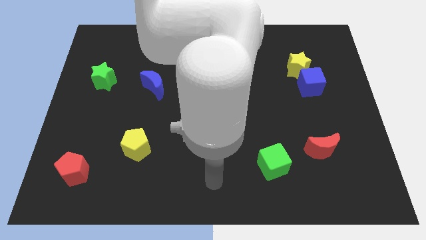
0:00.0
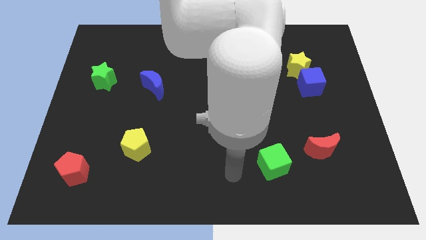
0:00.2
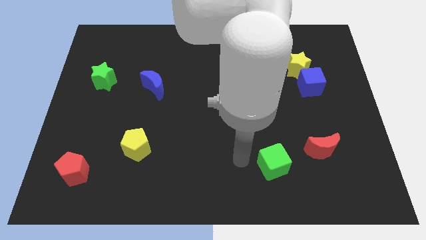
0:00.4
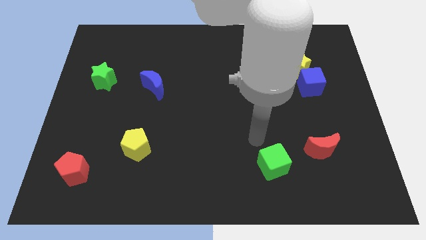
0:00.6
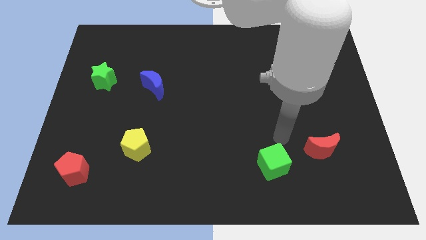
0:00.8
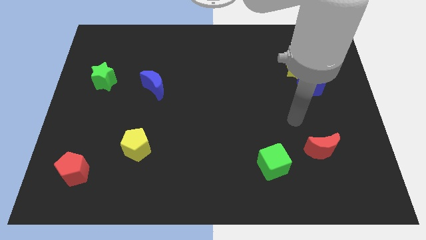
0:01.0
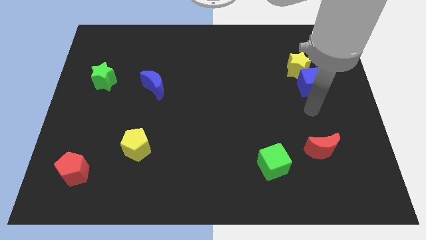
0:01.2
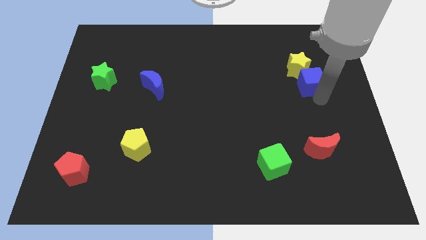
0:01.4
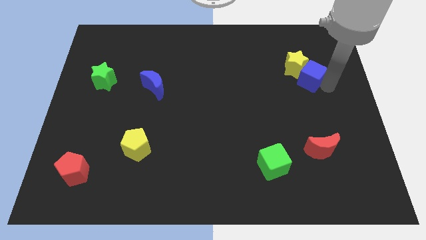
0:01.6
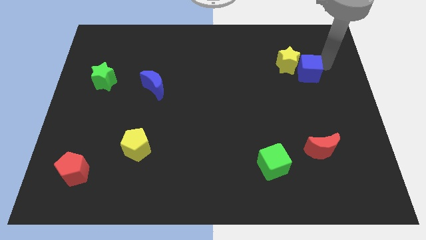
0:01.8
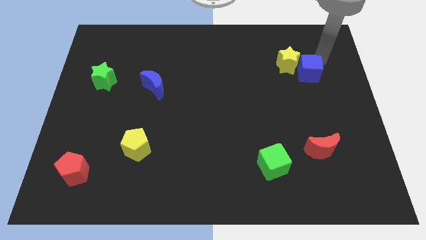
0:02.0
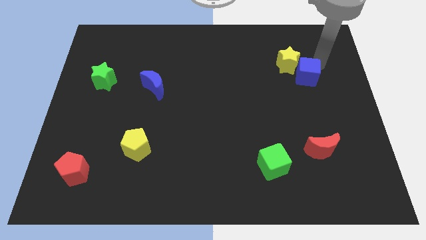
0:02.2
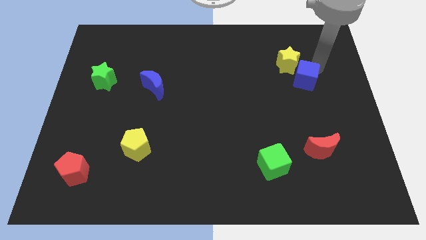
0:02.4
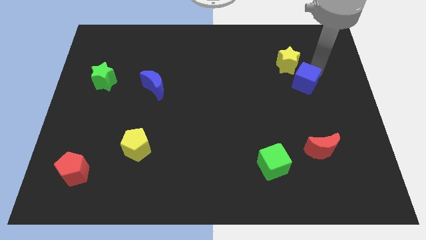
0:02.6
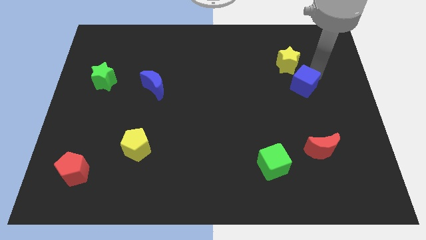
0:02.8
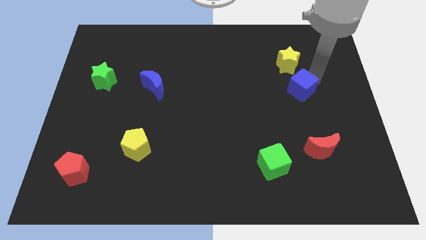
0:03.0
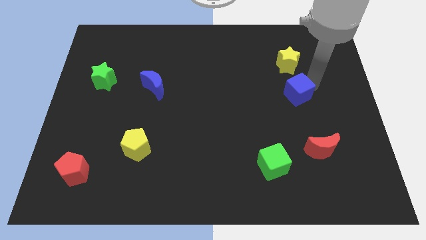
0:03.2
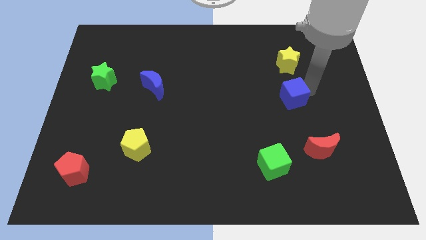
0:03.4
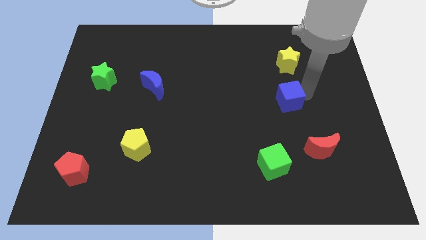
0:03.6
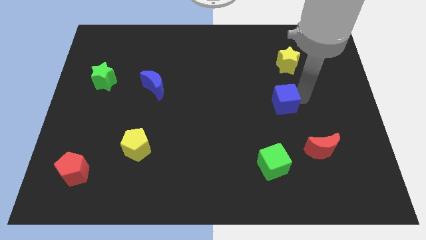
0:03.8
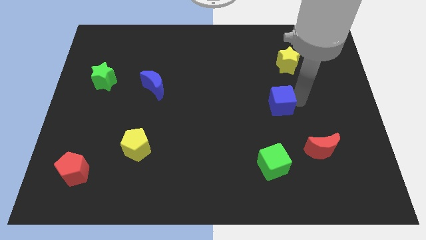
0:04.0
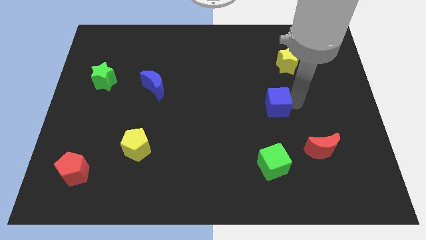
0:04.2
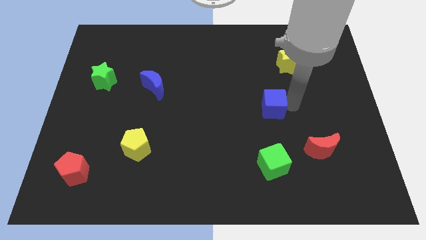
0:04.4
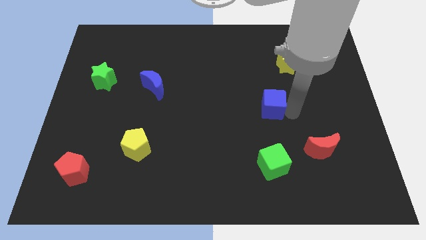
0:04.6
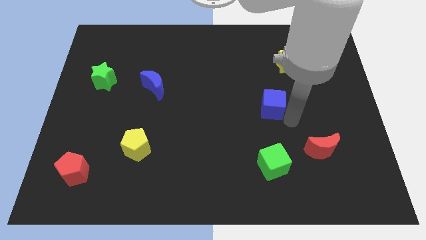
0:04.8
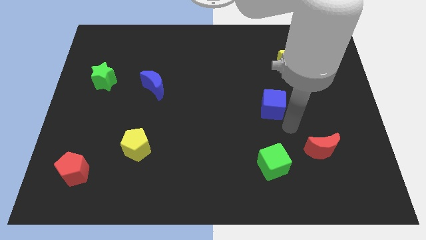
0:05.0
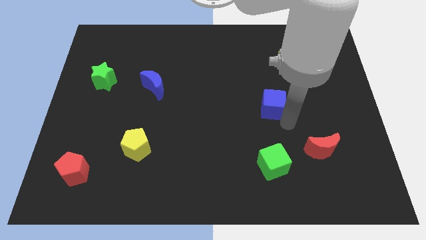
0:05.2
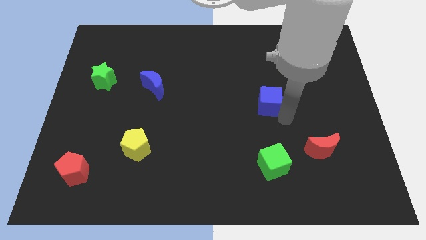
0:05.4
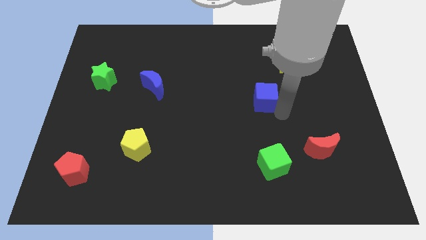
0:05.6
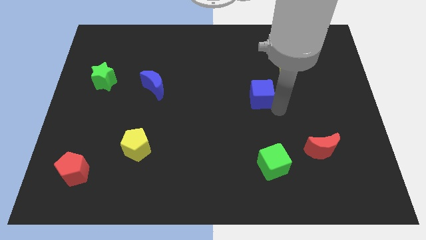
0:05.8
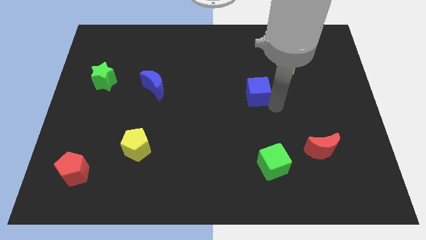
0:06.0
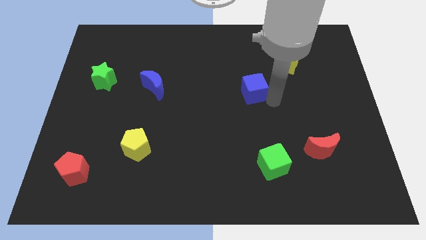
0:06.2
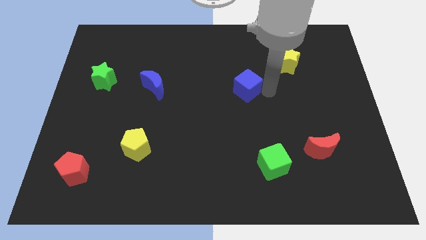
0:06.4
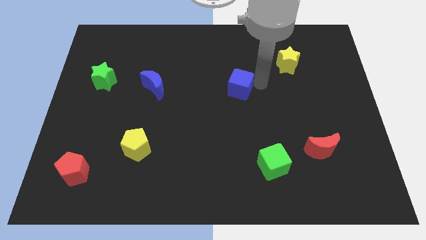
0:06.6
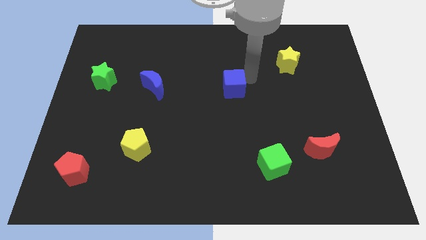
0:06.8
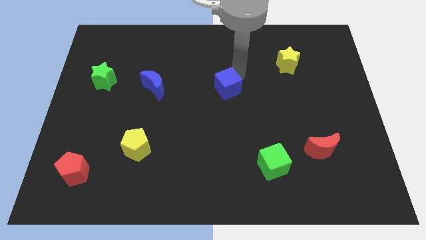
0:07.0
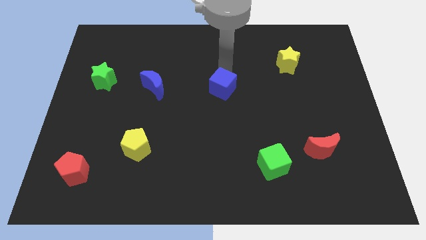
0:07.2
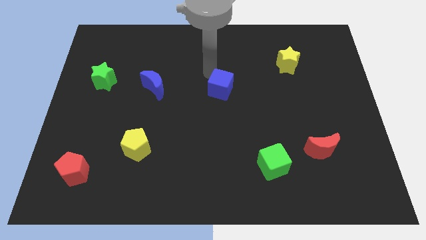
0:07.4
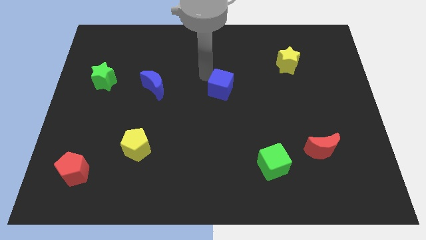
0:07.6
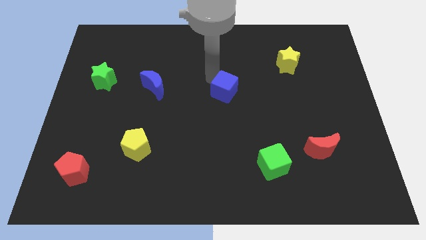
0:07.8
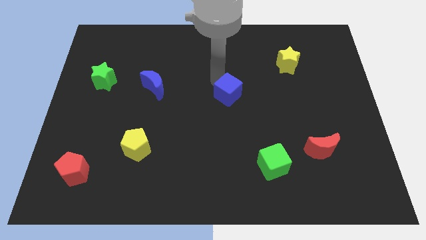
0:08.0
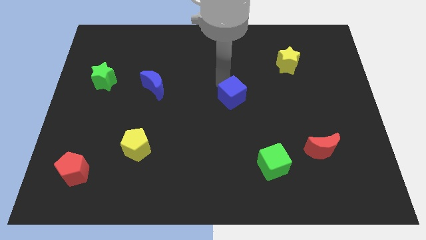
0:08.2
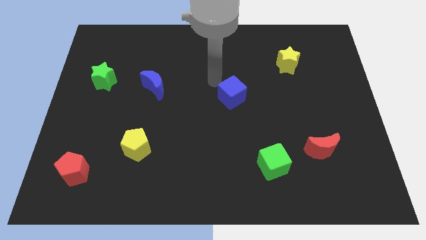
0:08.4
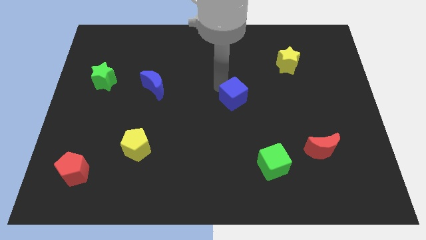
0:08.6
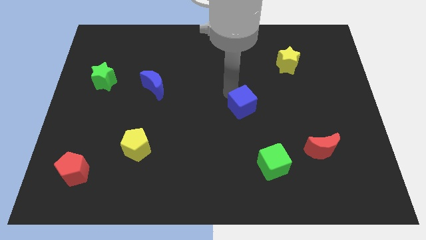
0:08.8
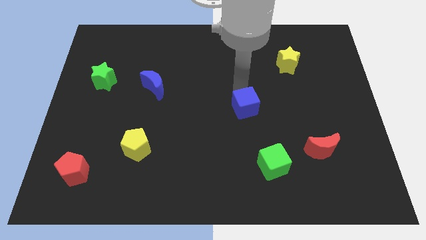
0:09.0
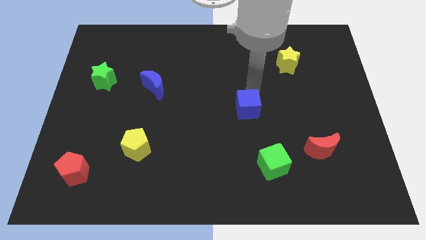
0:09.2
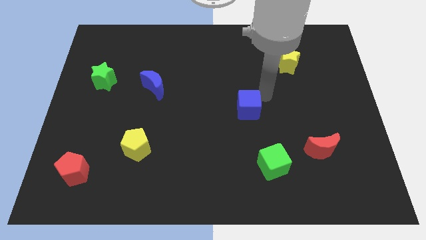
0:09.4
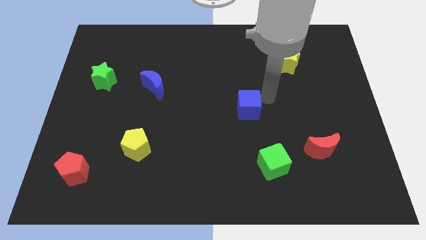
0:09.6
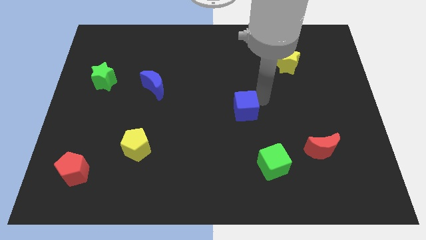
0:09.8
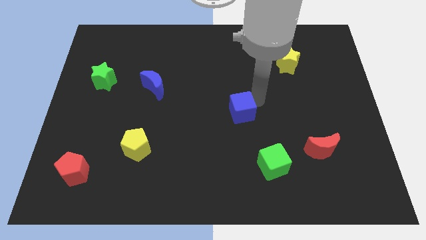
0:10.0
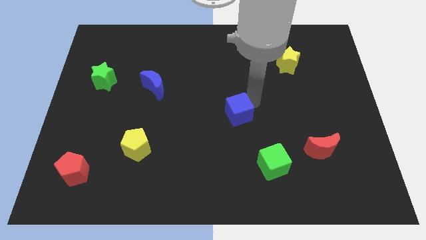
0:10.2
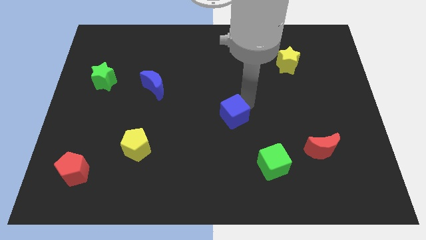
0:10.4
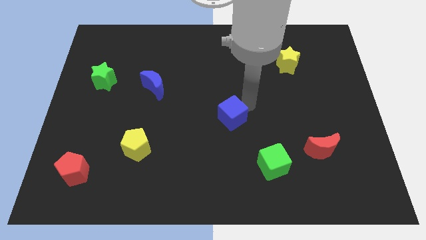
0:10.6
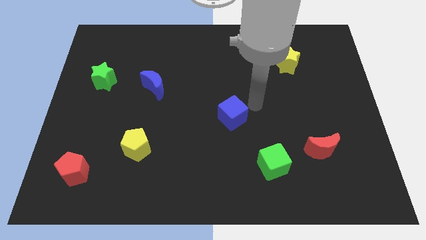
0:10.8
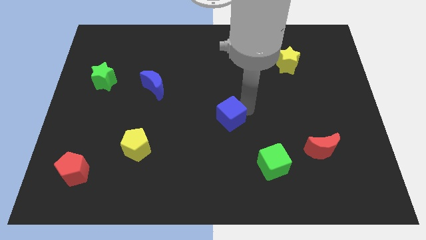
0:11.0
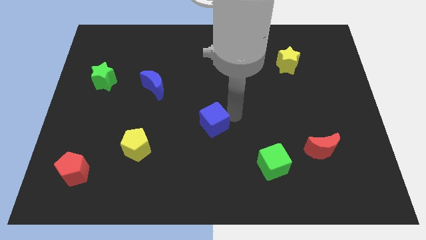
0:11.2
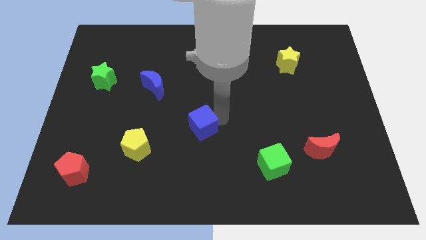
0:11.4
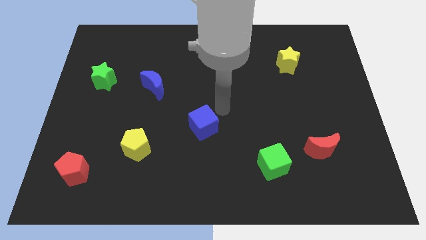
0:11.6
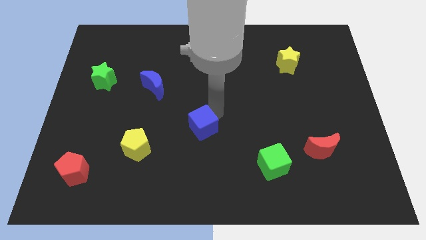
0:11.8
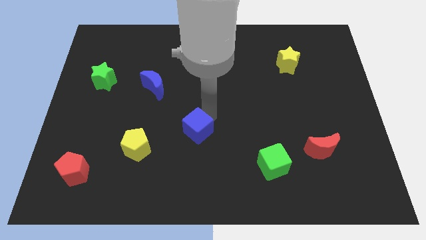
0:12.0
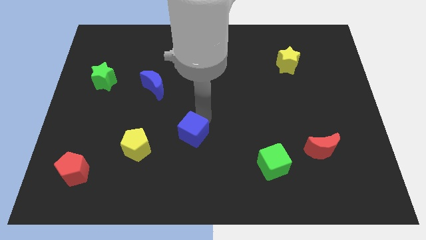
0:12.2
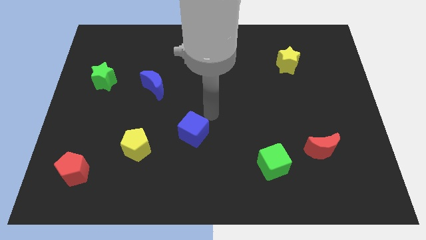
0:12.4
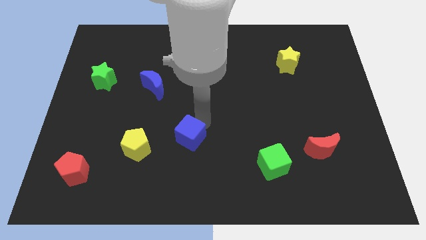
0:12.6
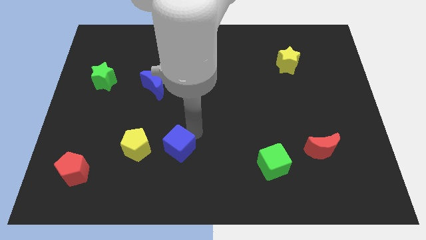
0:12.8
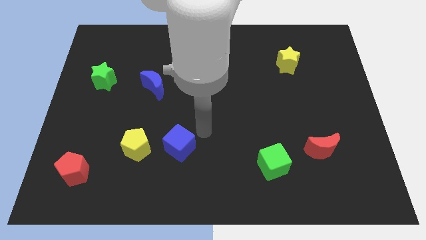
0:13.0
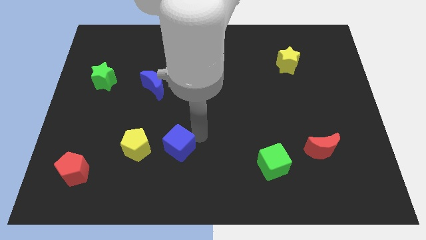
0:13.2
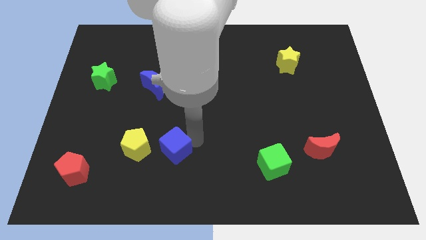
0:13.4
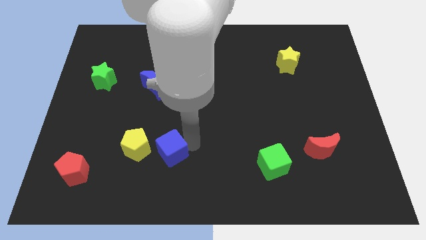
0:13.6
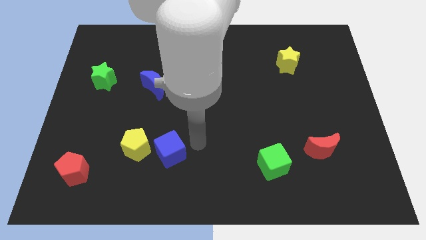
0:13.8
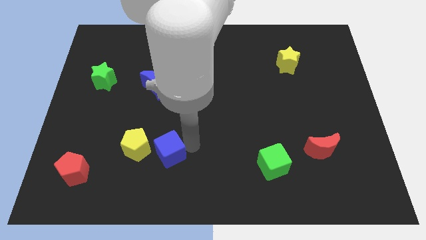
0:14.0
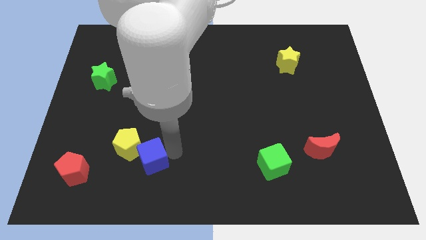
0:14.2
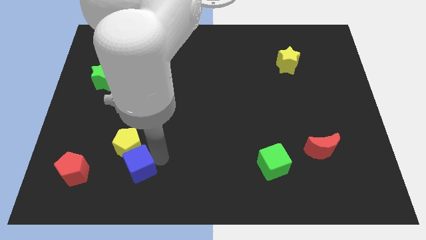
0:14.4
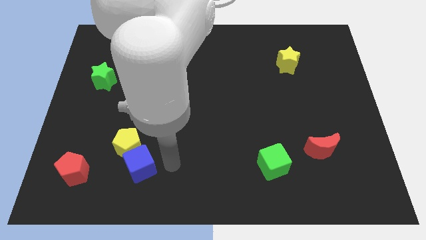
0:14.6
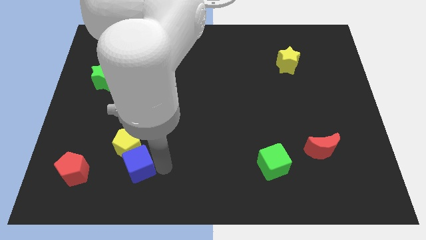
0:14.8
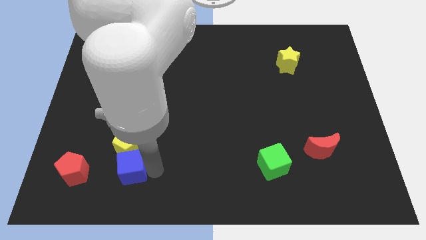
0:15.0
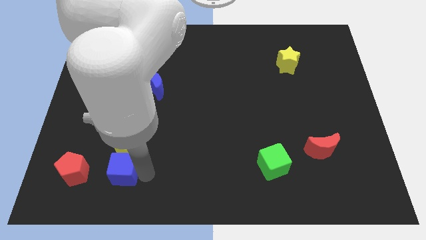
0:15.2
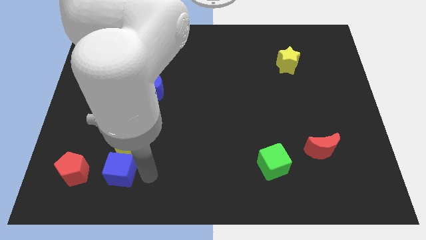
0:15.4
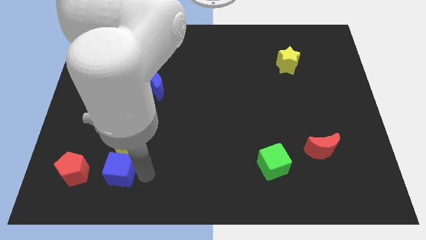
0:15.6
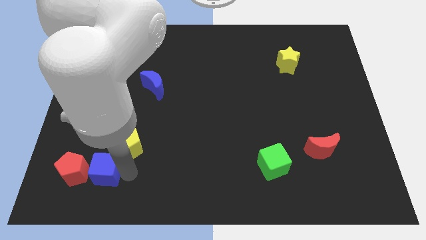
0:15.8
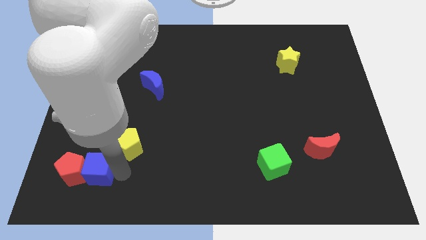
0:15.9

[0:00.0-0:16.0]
push the blue cube close to the red pentagon
